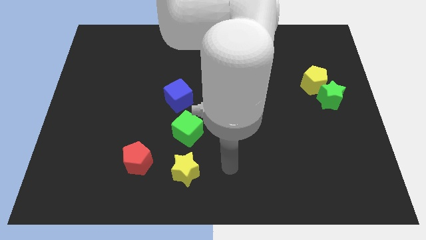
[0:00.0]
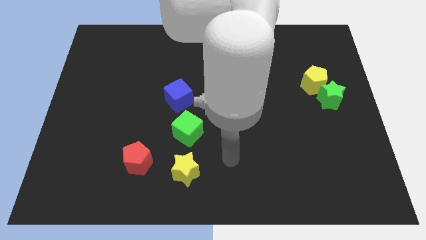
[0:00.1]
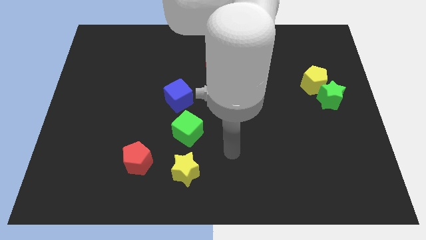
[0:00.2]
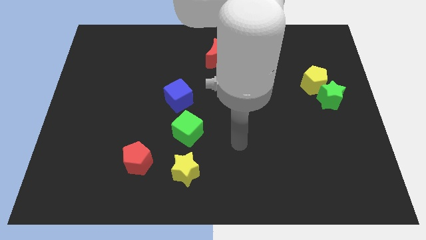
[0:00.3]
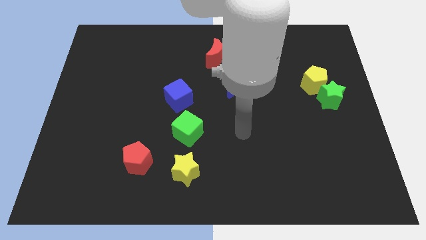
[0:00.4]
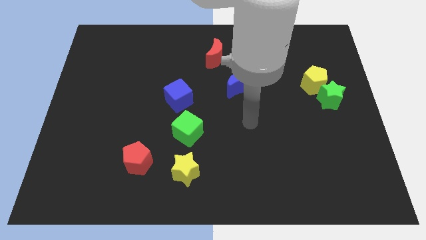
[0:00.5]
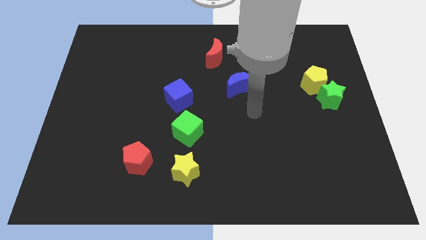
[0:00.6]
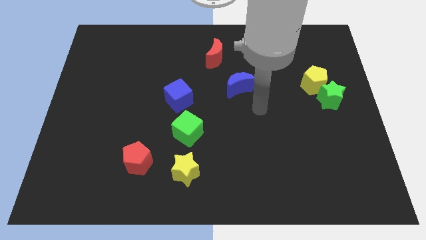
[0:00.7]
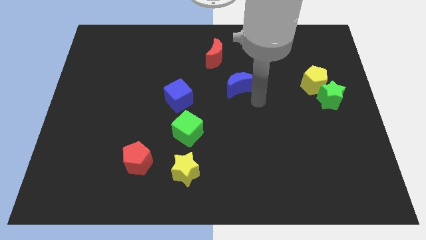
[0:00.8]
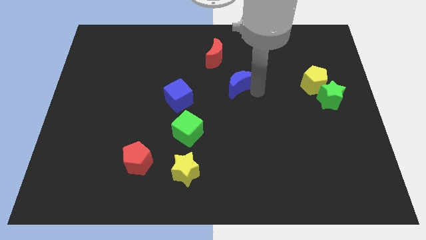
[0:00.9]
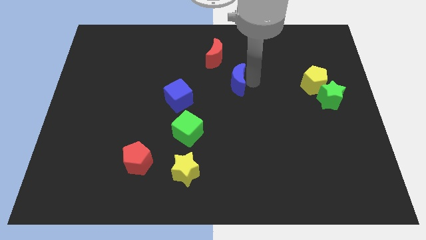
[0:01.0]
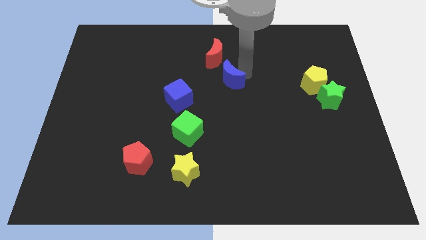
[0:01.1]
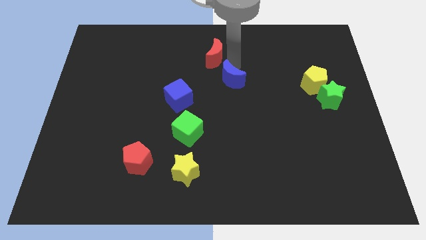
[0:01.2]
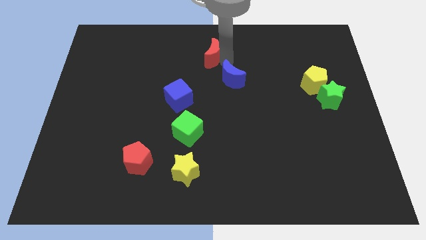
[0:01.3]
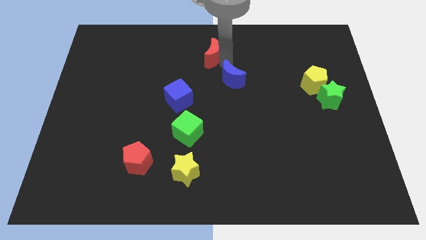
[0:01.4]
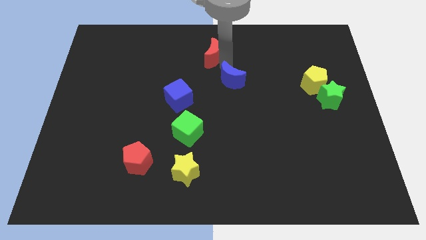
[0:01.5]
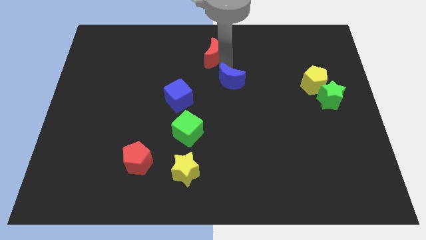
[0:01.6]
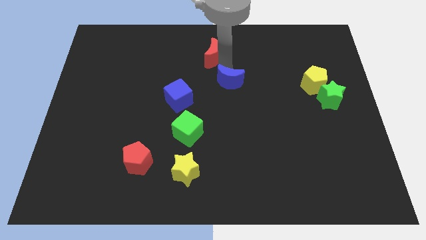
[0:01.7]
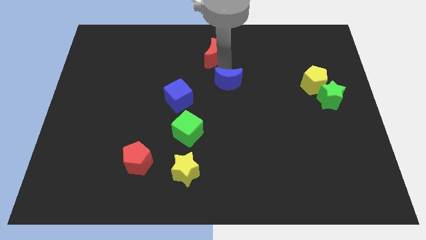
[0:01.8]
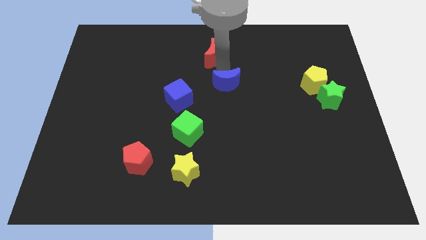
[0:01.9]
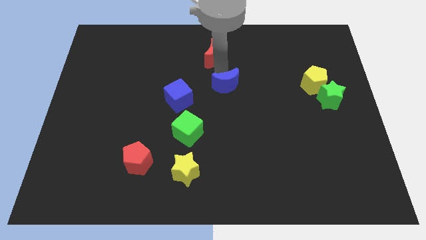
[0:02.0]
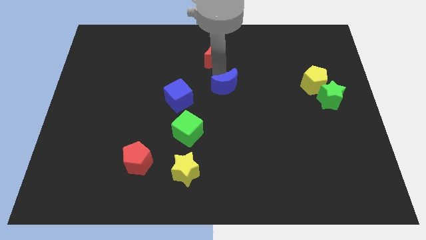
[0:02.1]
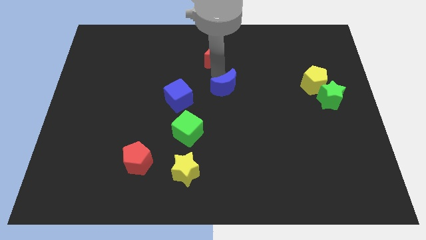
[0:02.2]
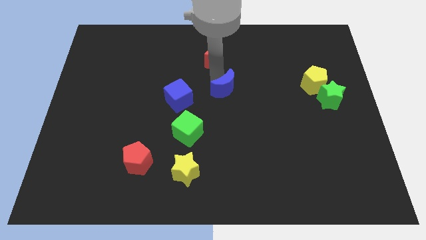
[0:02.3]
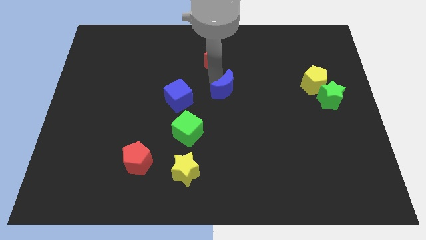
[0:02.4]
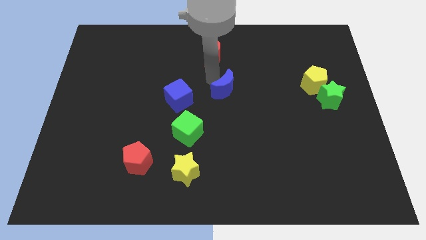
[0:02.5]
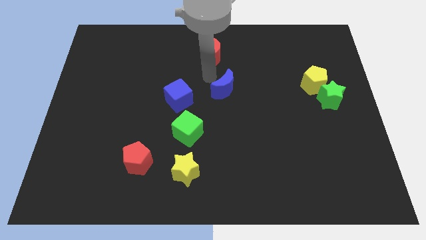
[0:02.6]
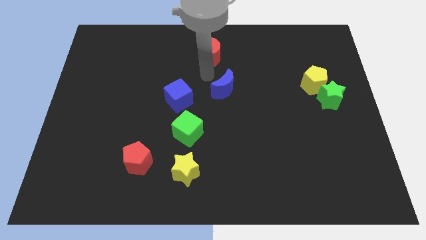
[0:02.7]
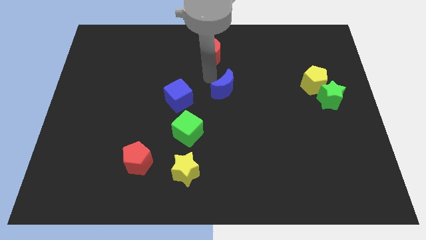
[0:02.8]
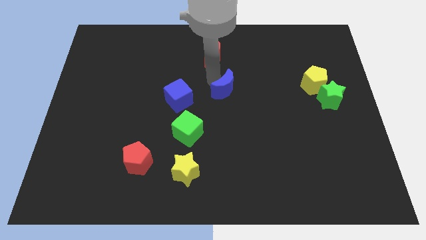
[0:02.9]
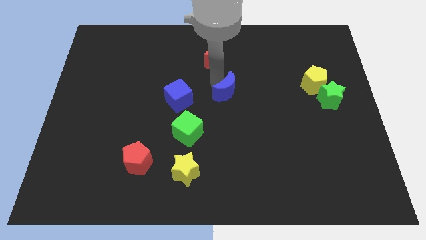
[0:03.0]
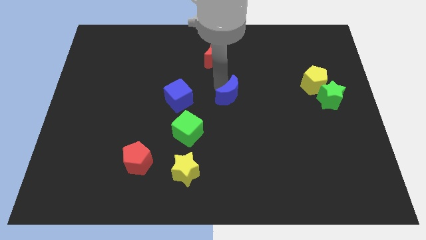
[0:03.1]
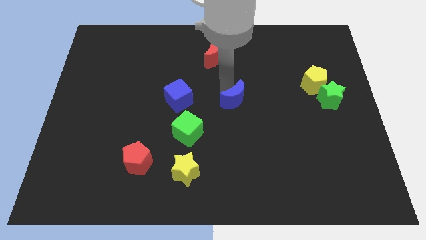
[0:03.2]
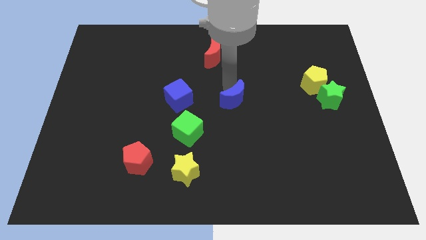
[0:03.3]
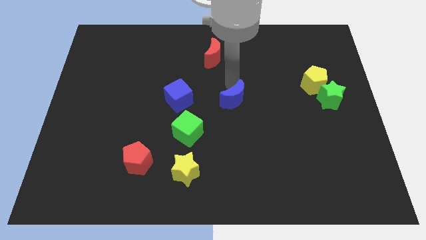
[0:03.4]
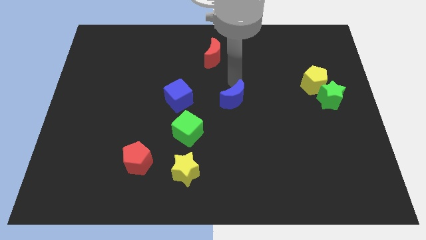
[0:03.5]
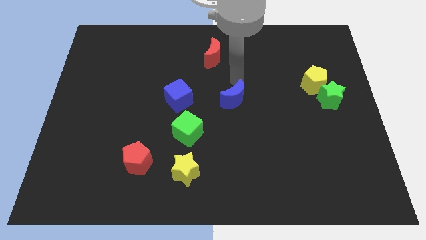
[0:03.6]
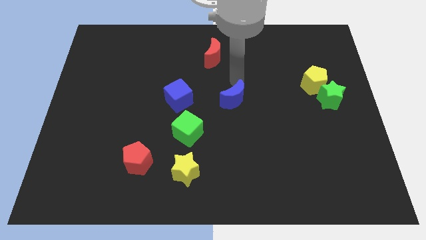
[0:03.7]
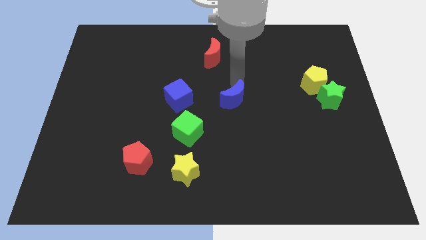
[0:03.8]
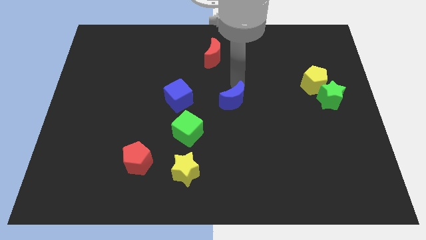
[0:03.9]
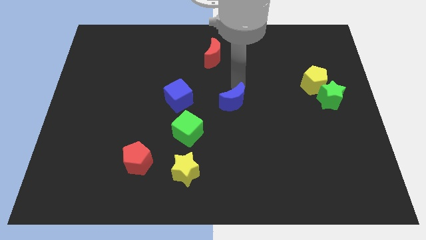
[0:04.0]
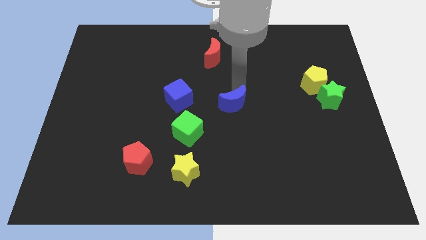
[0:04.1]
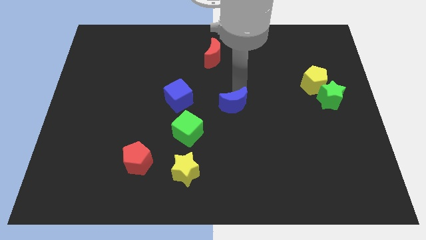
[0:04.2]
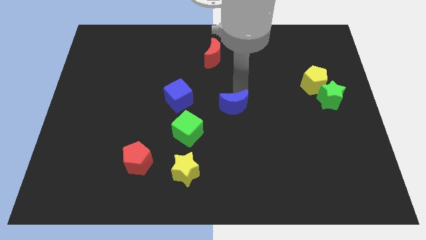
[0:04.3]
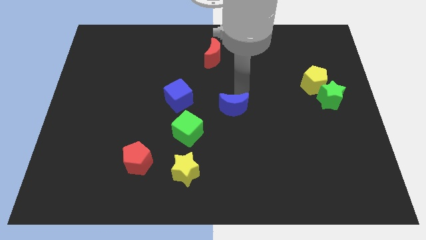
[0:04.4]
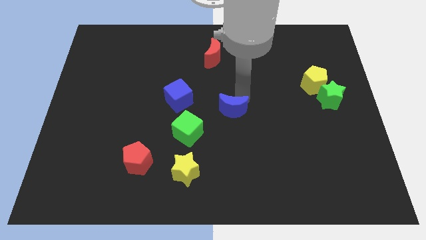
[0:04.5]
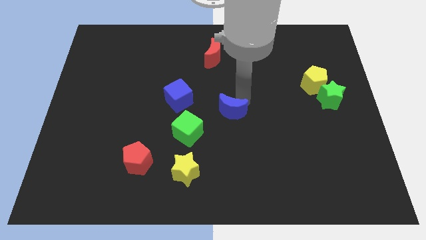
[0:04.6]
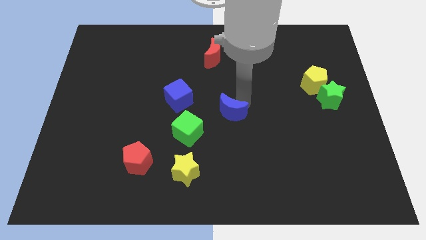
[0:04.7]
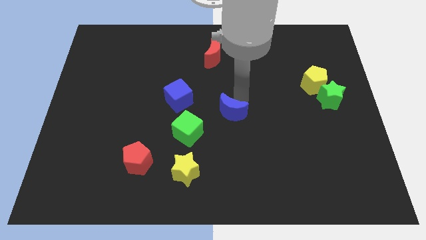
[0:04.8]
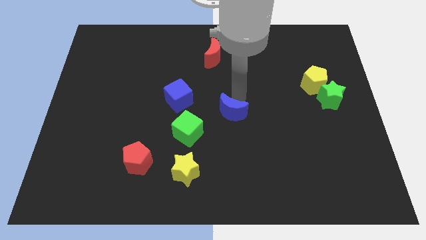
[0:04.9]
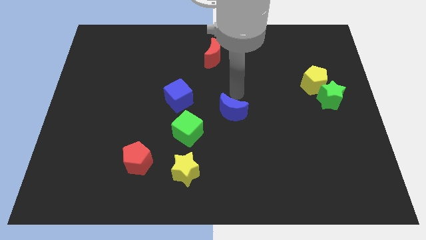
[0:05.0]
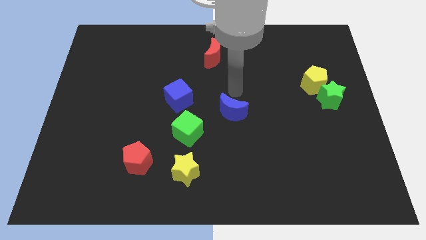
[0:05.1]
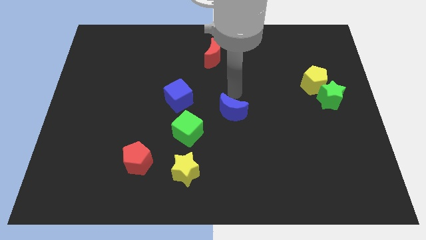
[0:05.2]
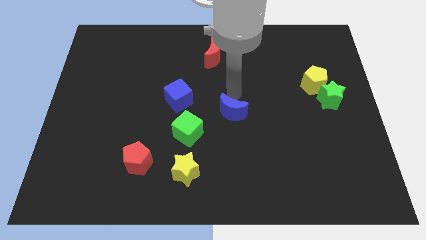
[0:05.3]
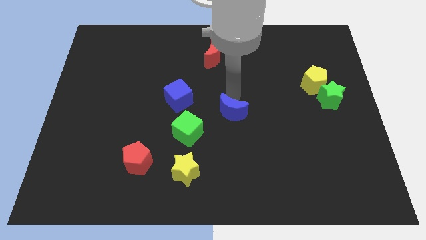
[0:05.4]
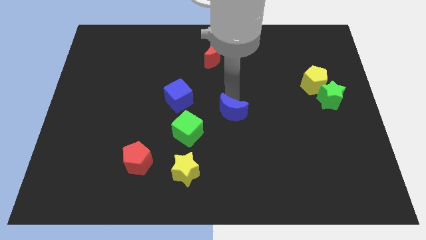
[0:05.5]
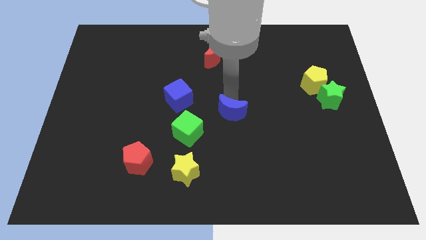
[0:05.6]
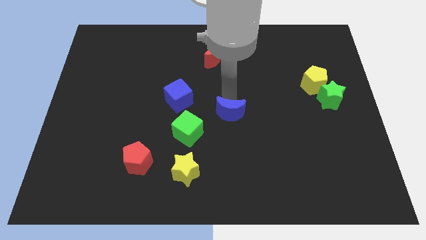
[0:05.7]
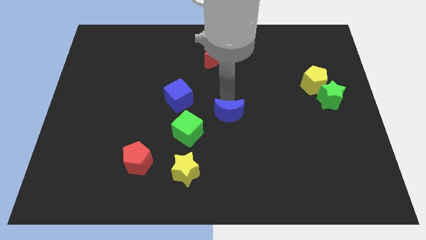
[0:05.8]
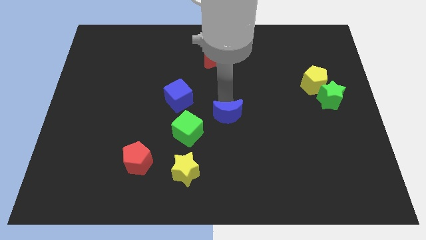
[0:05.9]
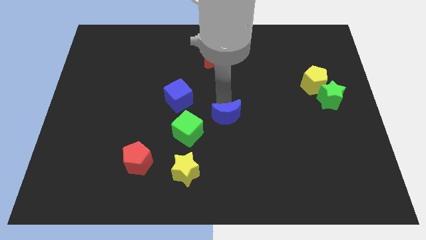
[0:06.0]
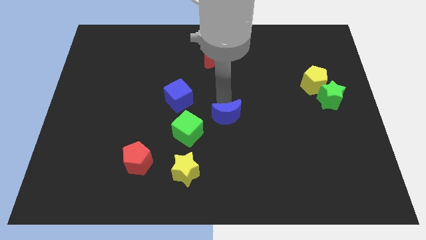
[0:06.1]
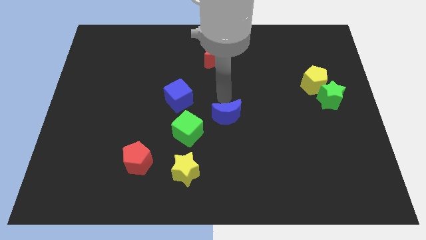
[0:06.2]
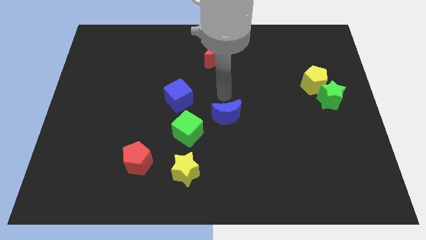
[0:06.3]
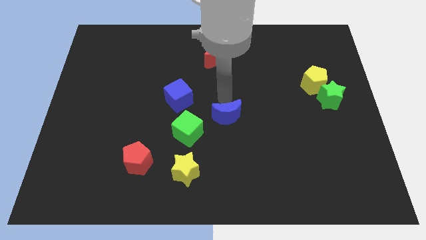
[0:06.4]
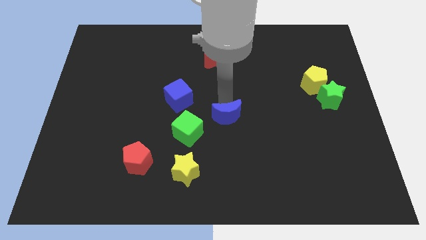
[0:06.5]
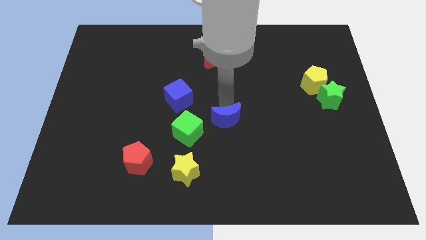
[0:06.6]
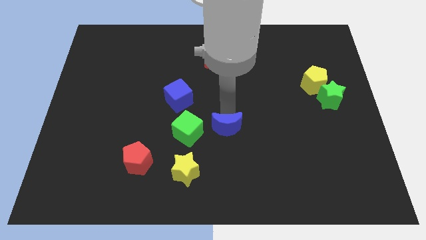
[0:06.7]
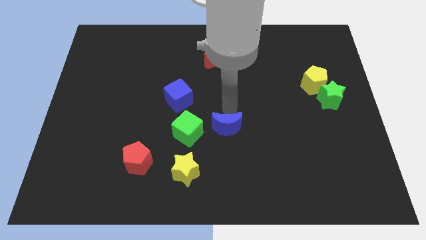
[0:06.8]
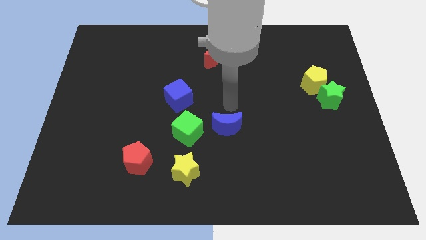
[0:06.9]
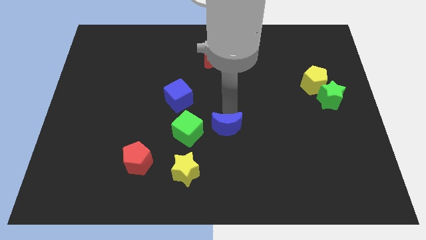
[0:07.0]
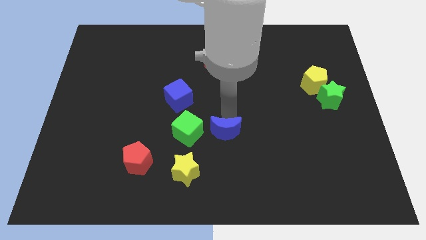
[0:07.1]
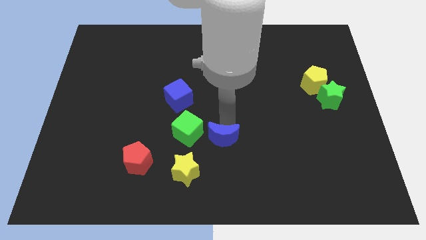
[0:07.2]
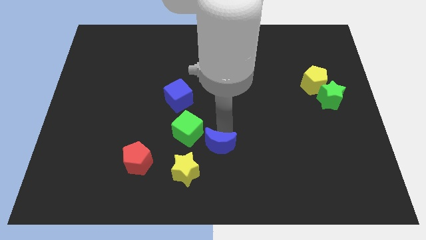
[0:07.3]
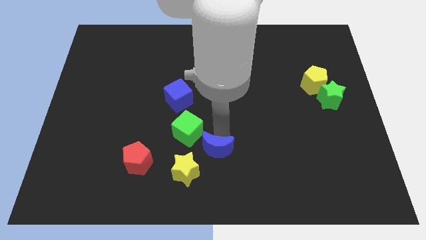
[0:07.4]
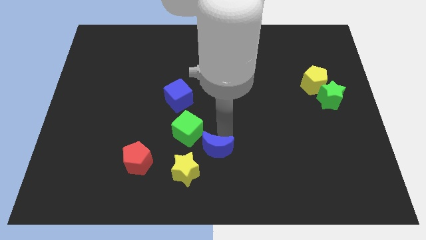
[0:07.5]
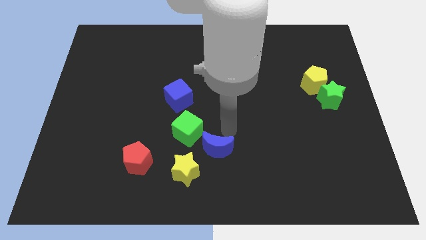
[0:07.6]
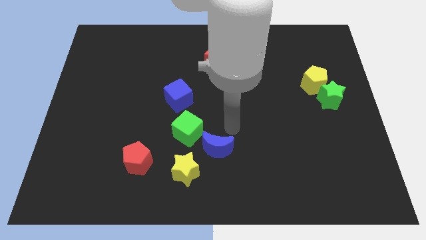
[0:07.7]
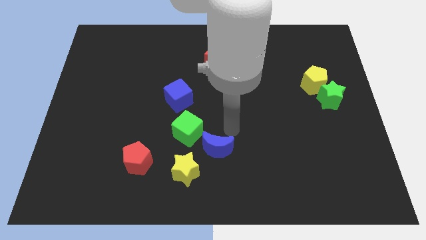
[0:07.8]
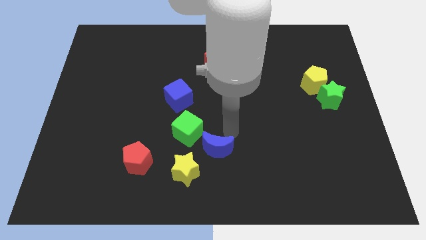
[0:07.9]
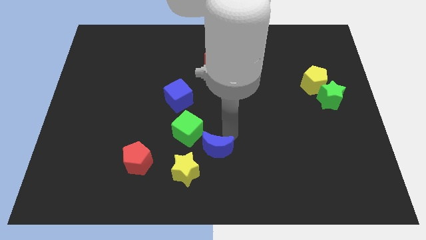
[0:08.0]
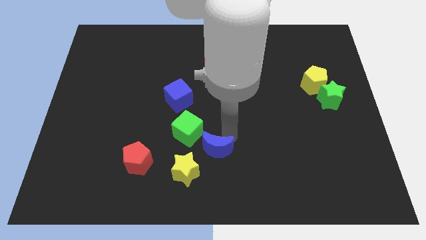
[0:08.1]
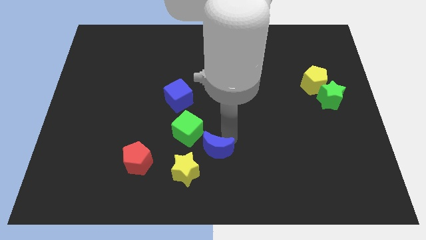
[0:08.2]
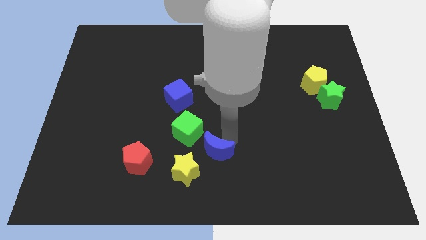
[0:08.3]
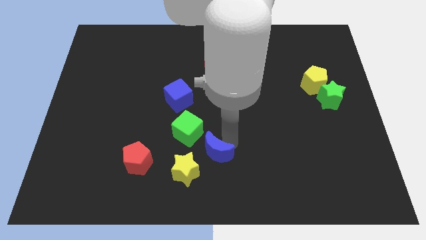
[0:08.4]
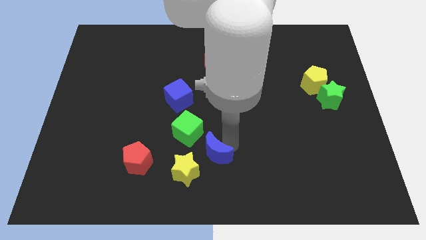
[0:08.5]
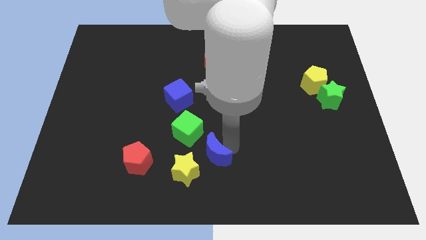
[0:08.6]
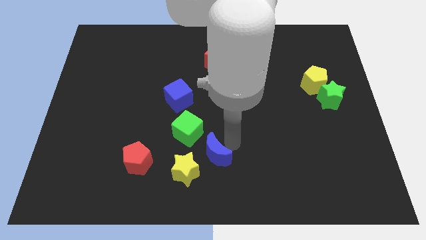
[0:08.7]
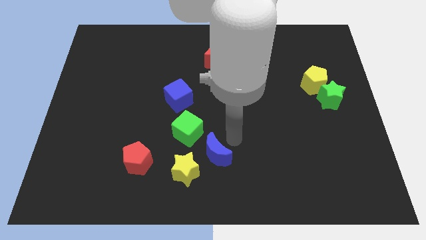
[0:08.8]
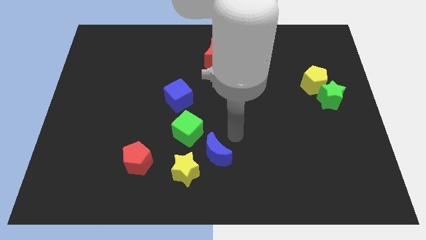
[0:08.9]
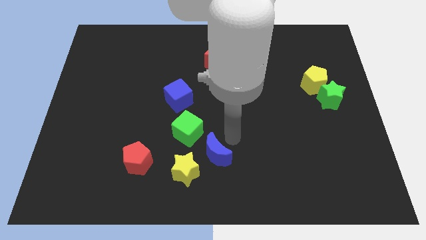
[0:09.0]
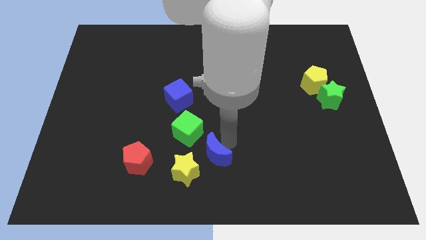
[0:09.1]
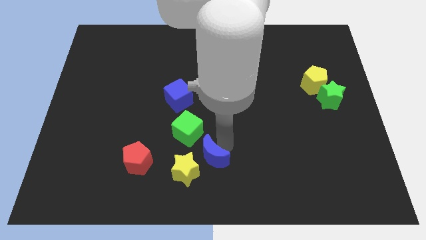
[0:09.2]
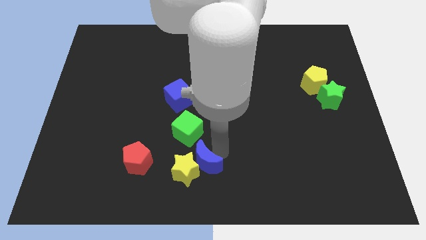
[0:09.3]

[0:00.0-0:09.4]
slide the blue moon towards the yellow star
